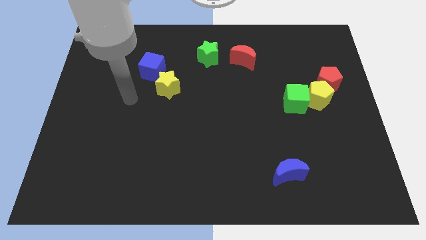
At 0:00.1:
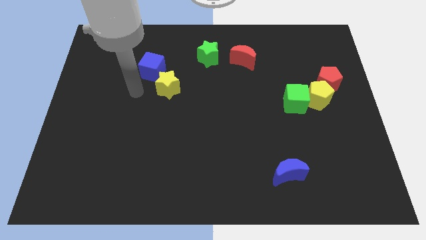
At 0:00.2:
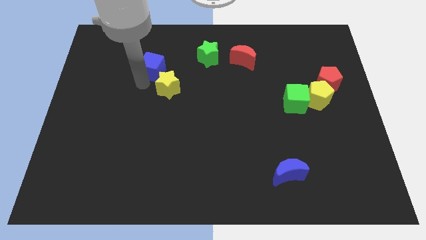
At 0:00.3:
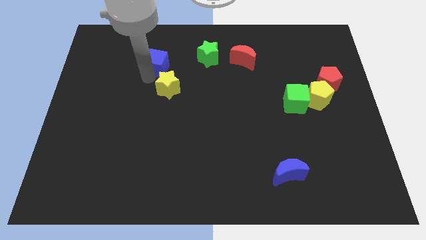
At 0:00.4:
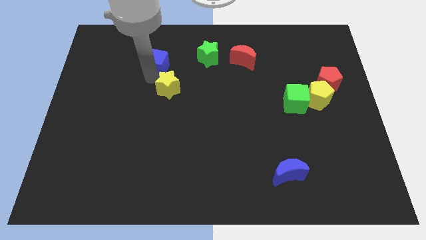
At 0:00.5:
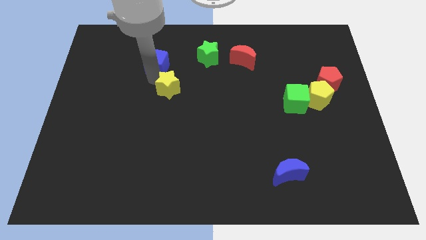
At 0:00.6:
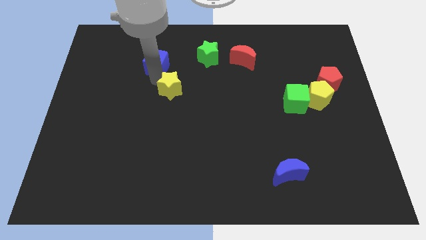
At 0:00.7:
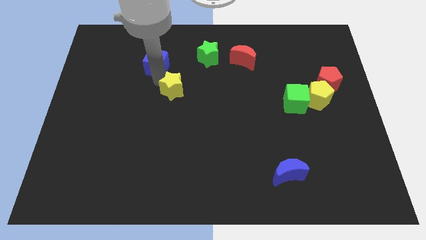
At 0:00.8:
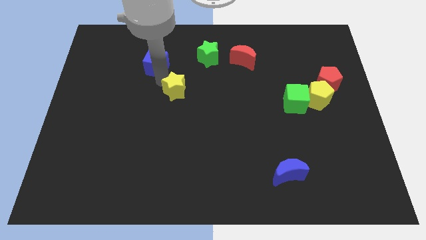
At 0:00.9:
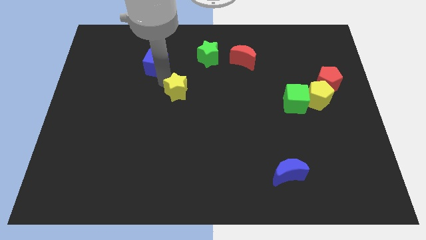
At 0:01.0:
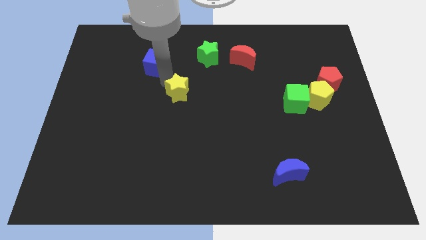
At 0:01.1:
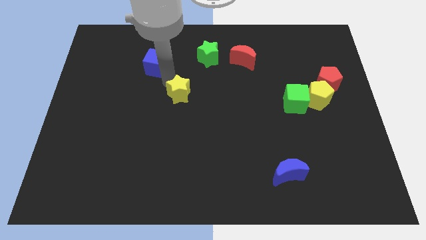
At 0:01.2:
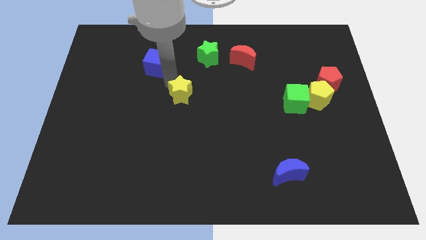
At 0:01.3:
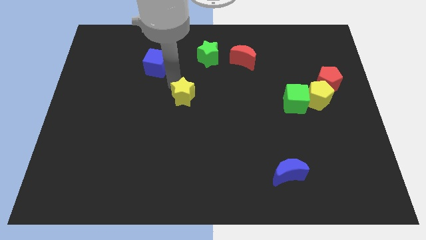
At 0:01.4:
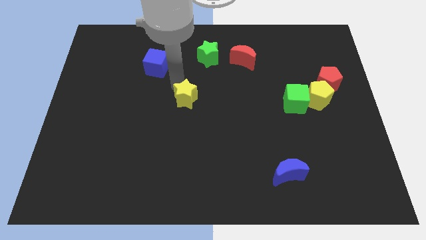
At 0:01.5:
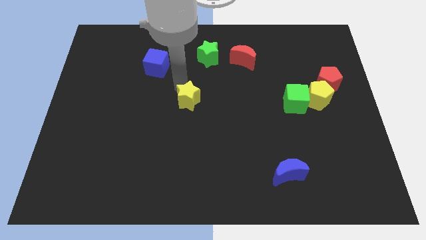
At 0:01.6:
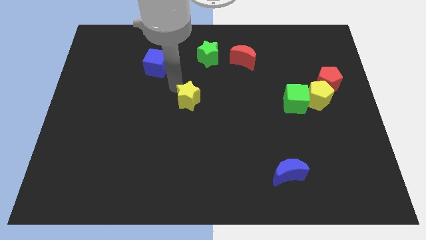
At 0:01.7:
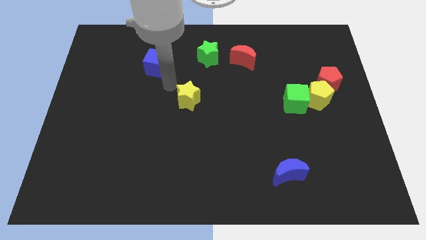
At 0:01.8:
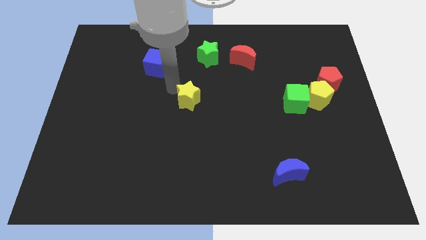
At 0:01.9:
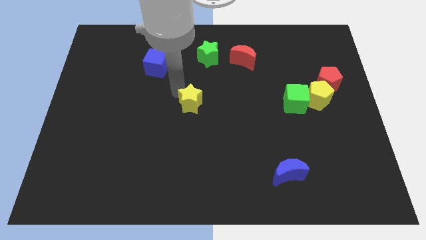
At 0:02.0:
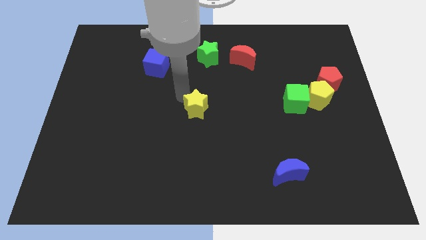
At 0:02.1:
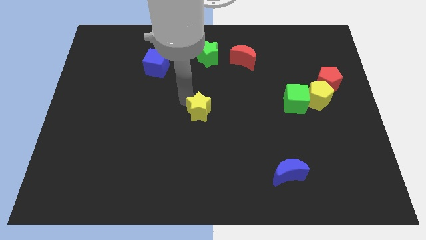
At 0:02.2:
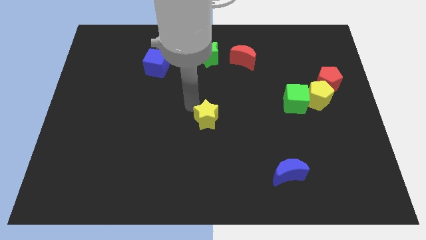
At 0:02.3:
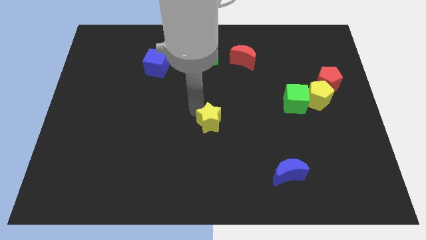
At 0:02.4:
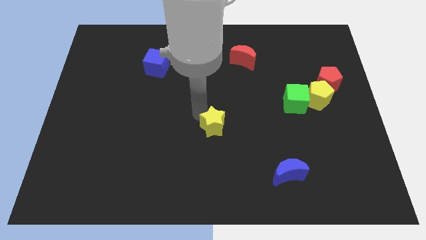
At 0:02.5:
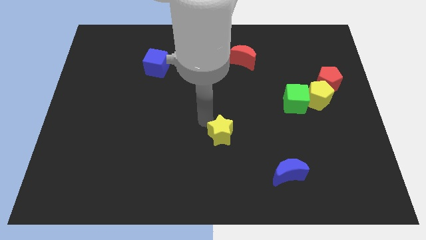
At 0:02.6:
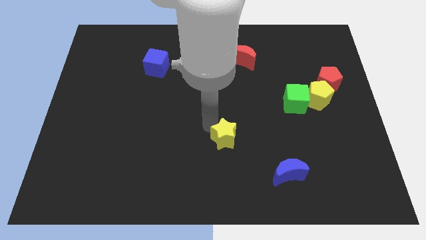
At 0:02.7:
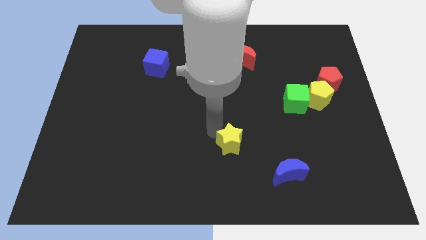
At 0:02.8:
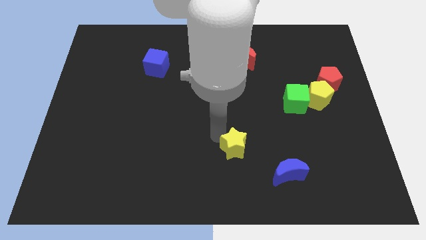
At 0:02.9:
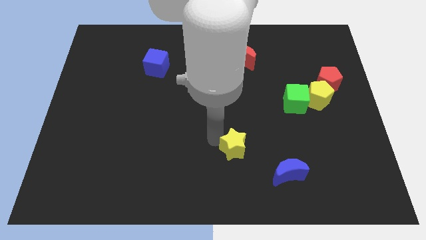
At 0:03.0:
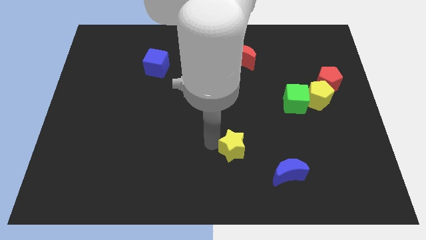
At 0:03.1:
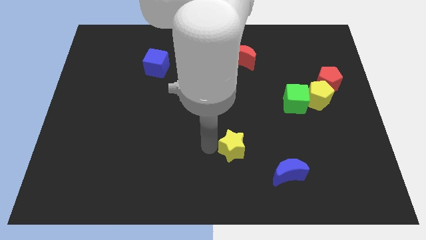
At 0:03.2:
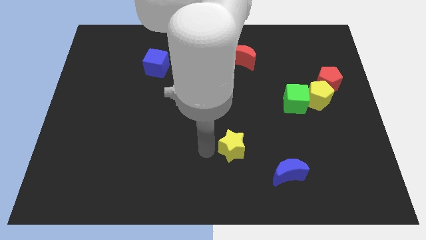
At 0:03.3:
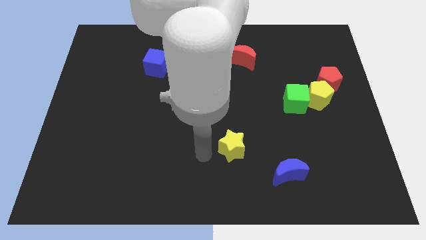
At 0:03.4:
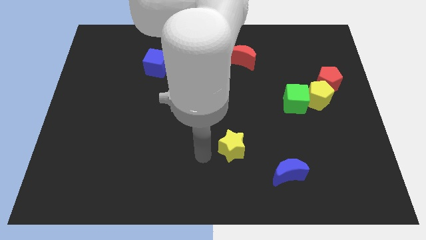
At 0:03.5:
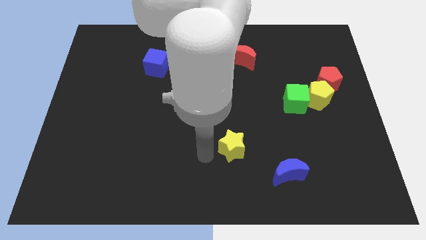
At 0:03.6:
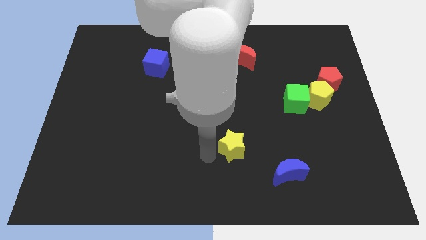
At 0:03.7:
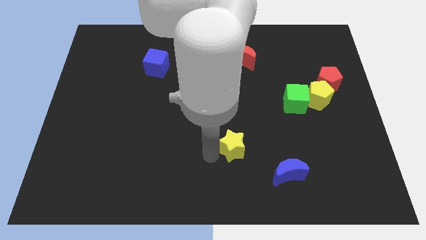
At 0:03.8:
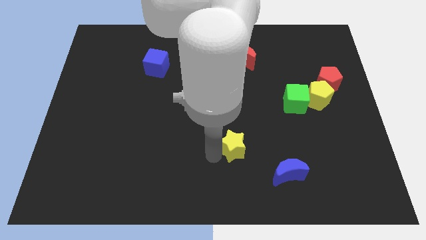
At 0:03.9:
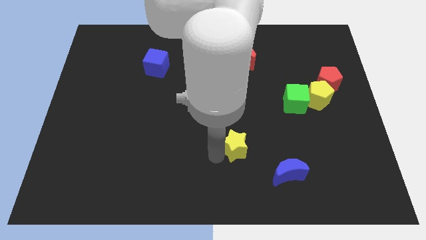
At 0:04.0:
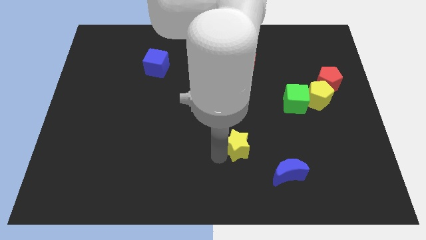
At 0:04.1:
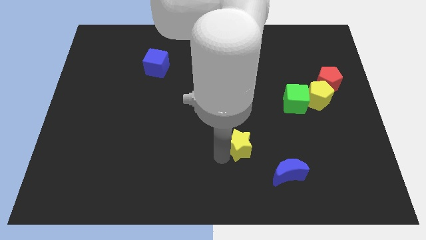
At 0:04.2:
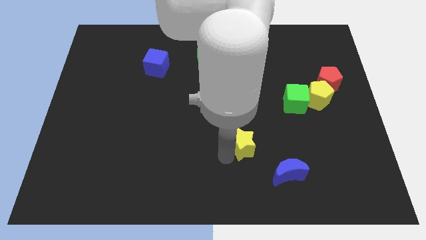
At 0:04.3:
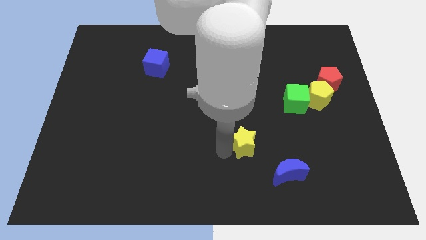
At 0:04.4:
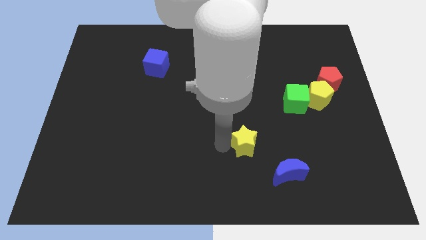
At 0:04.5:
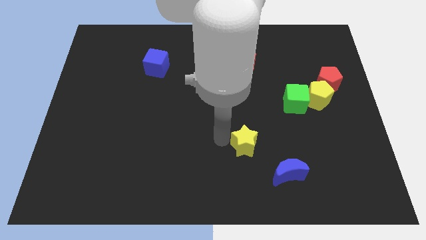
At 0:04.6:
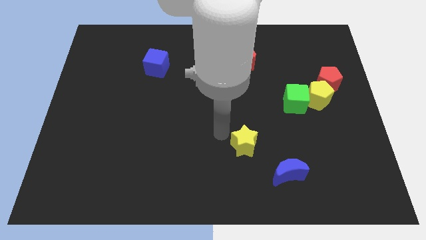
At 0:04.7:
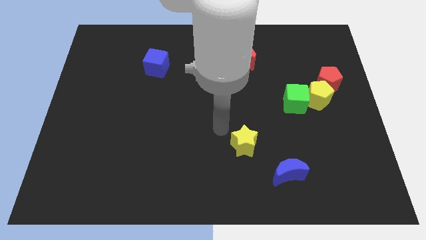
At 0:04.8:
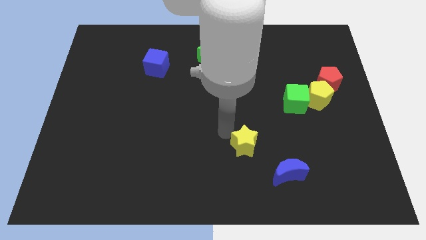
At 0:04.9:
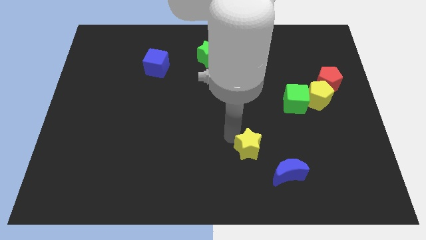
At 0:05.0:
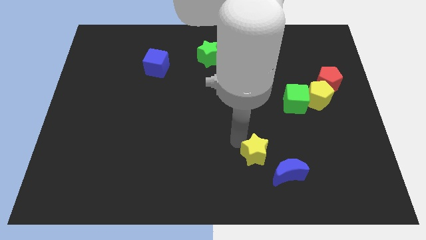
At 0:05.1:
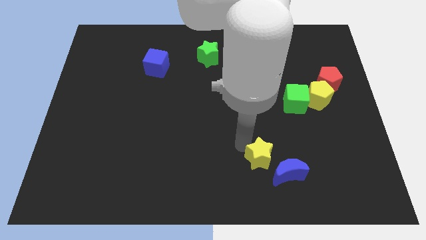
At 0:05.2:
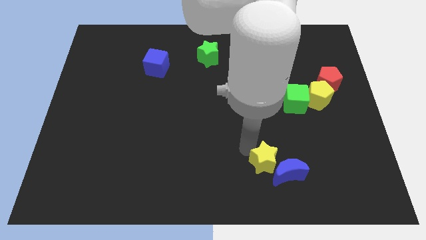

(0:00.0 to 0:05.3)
move the yellow star next to the blue moon

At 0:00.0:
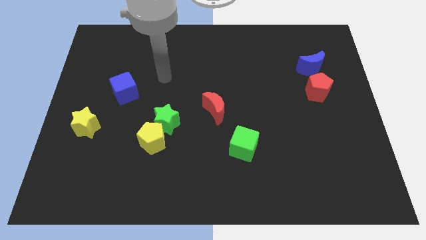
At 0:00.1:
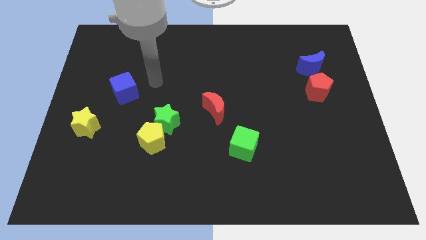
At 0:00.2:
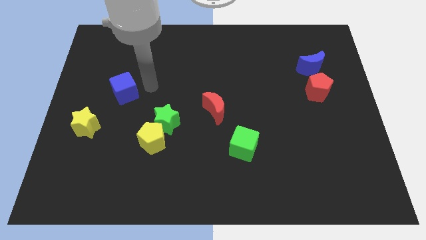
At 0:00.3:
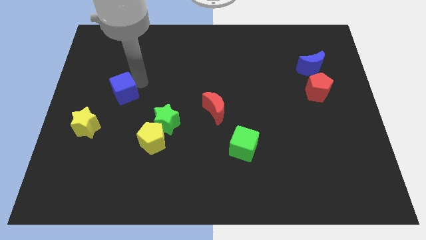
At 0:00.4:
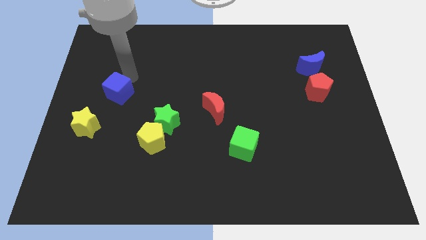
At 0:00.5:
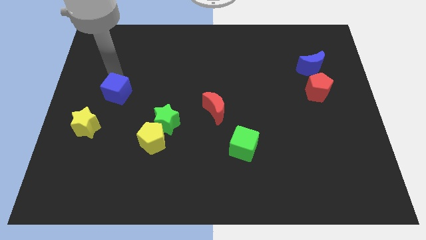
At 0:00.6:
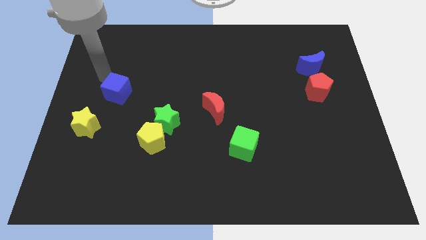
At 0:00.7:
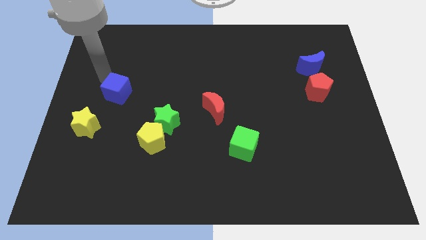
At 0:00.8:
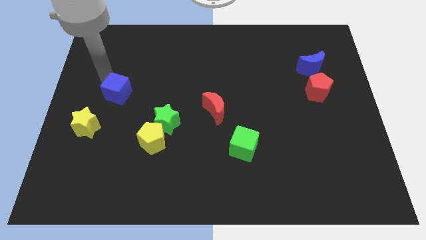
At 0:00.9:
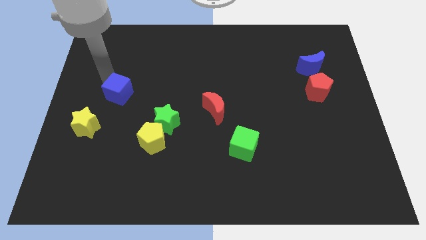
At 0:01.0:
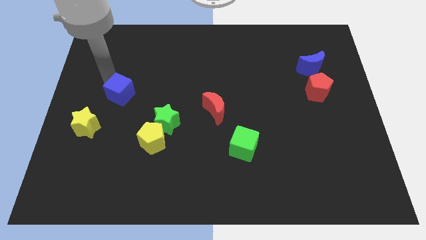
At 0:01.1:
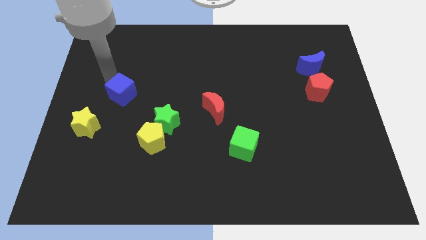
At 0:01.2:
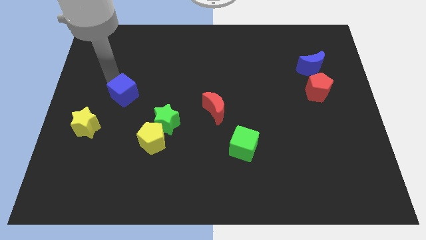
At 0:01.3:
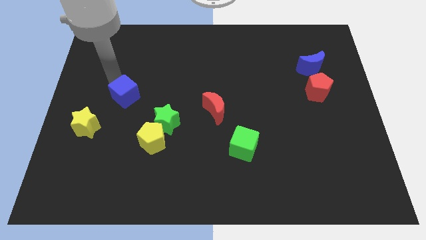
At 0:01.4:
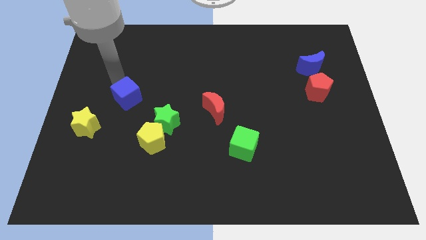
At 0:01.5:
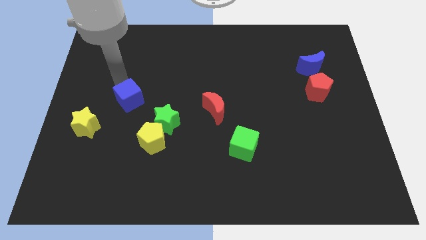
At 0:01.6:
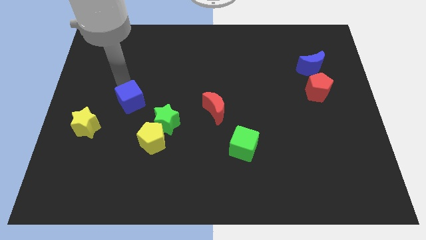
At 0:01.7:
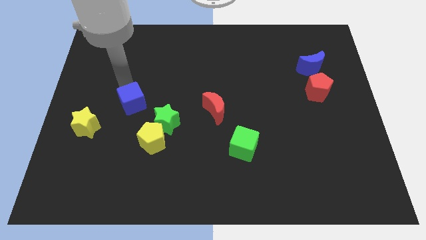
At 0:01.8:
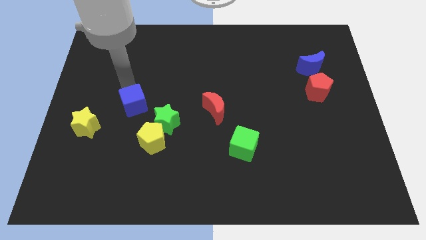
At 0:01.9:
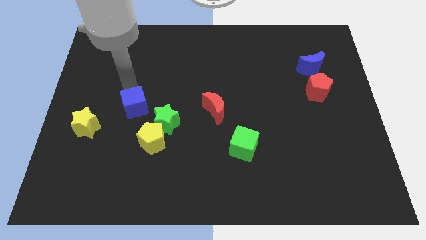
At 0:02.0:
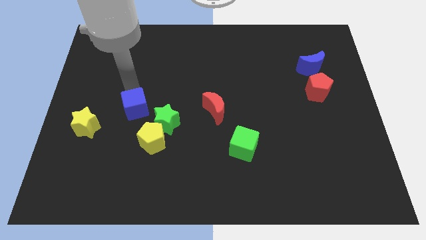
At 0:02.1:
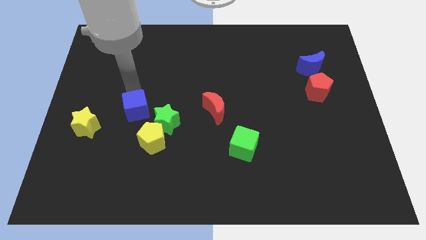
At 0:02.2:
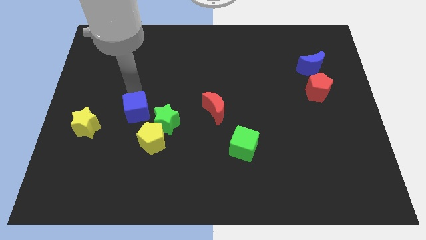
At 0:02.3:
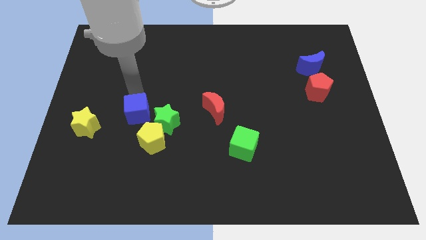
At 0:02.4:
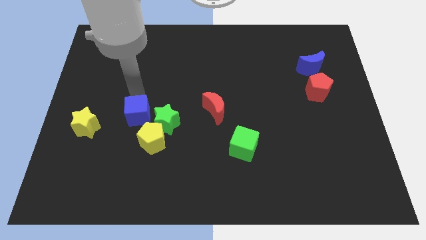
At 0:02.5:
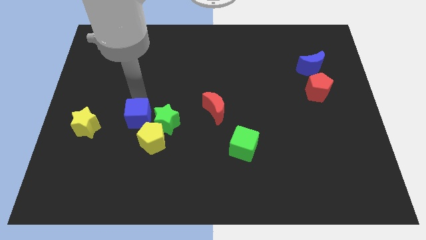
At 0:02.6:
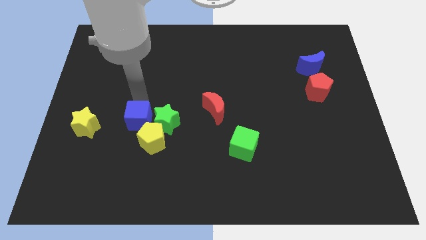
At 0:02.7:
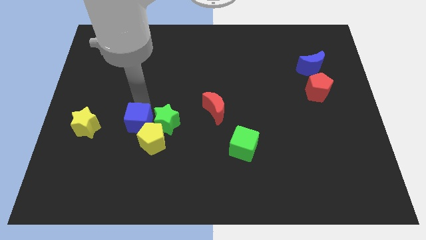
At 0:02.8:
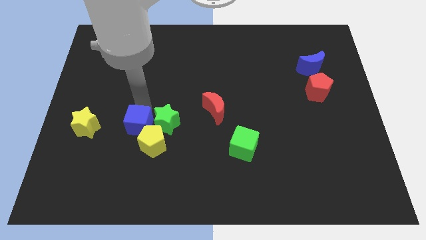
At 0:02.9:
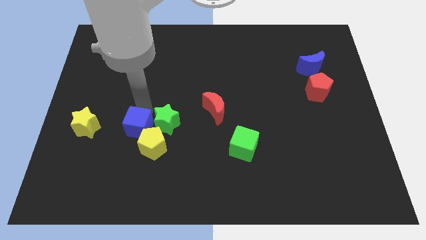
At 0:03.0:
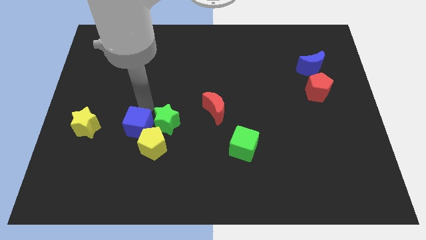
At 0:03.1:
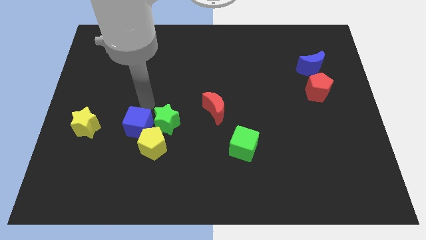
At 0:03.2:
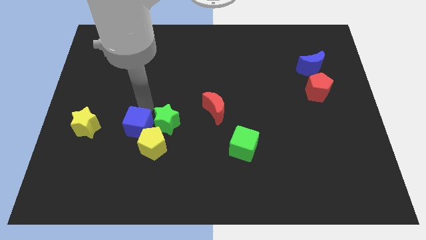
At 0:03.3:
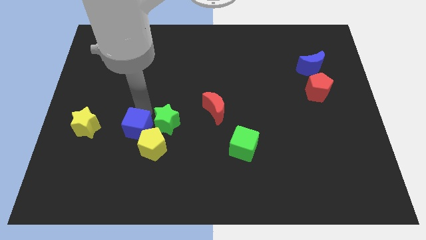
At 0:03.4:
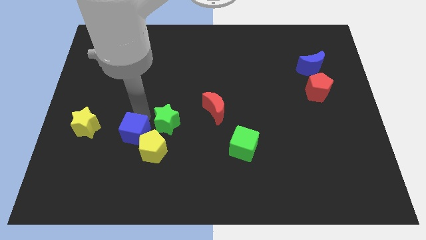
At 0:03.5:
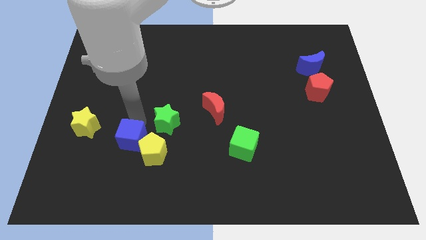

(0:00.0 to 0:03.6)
move the blue cube to the yellow pentagon
